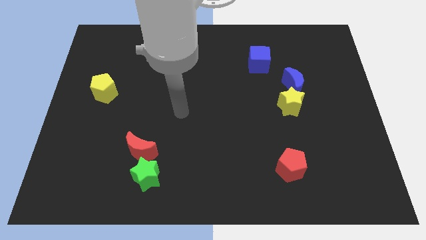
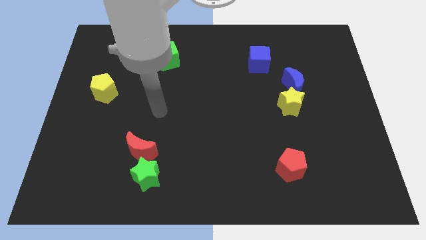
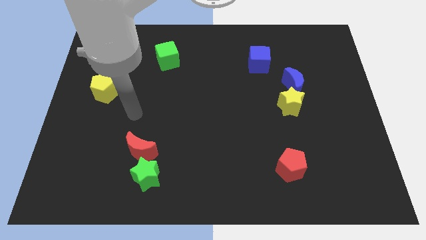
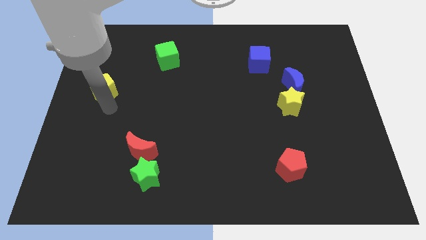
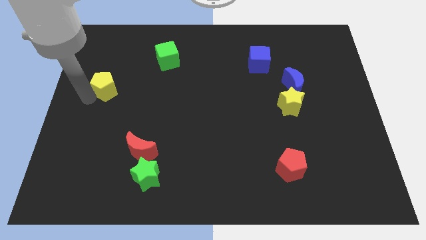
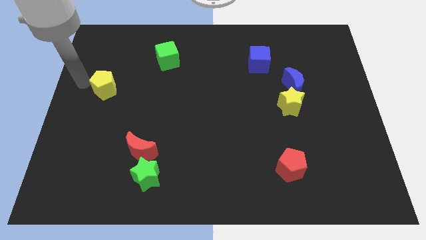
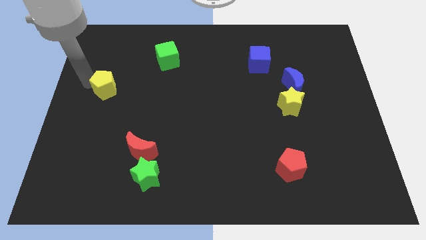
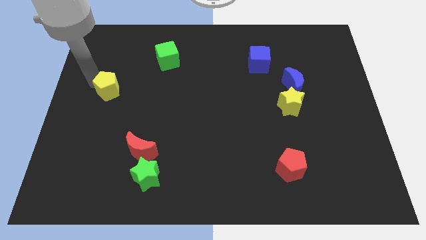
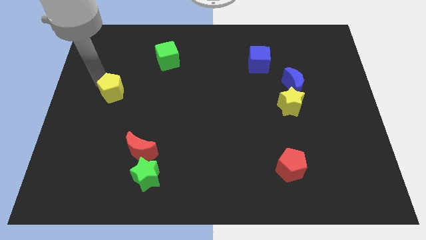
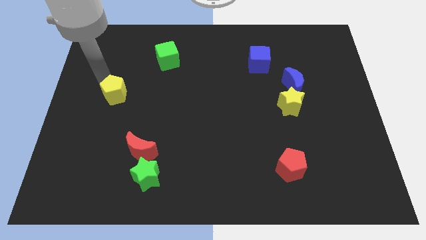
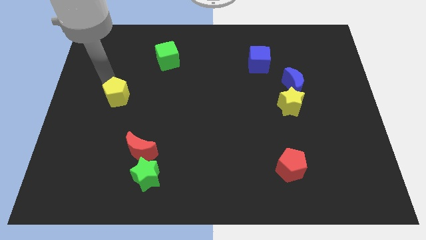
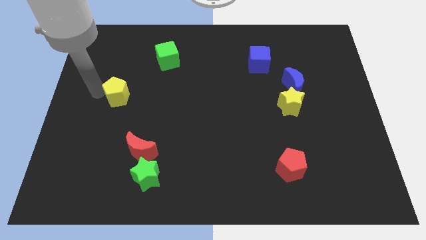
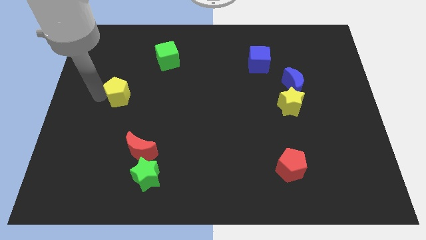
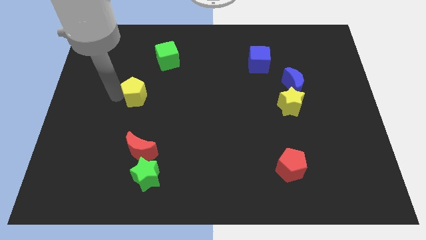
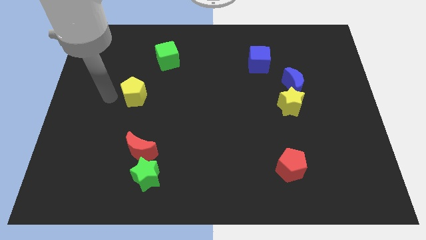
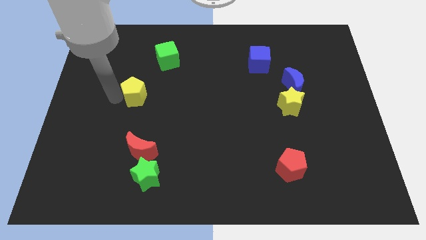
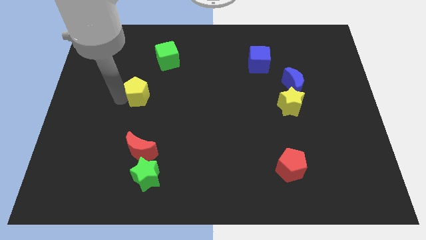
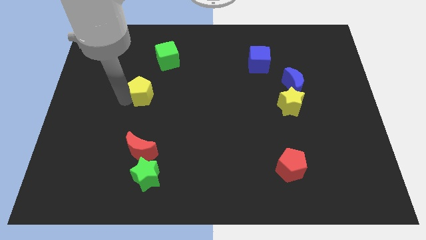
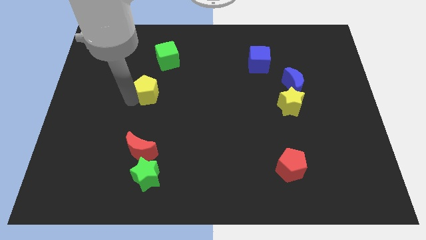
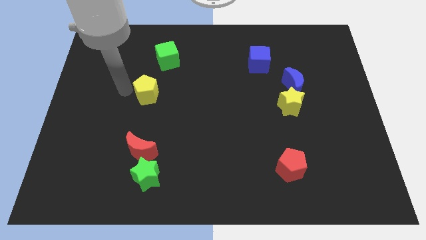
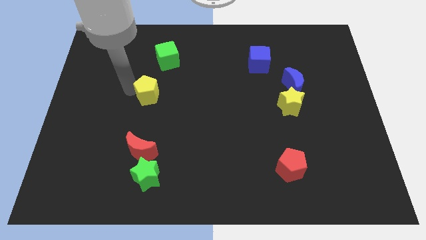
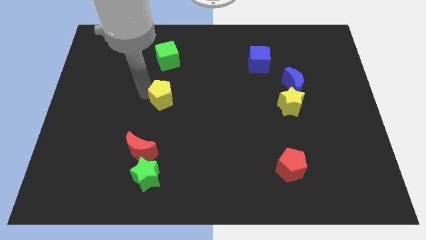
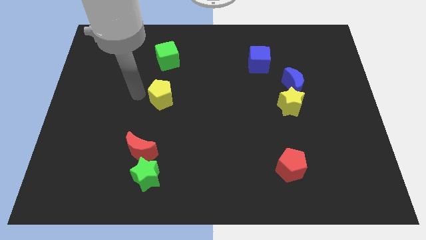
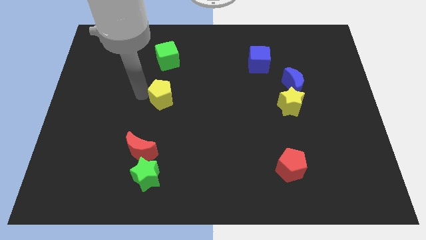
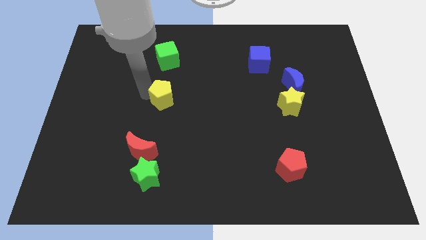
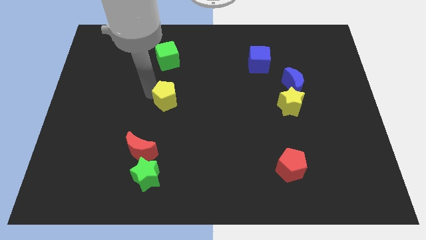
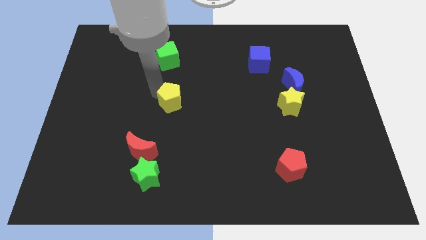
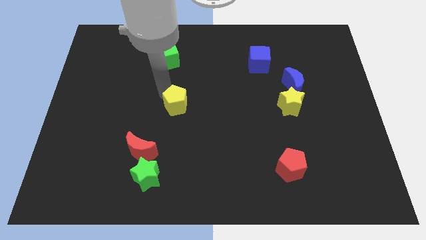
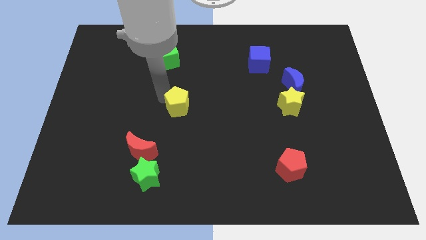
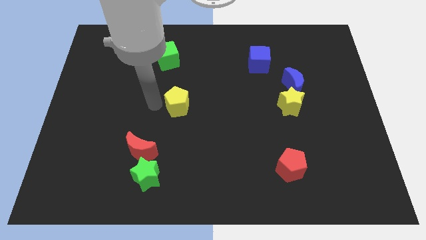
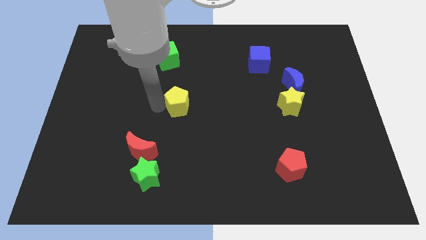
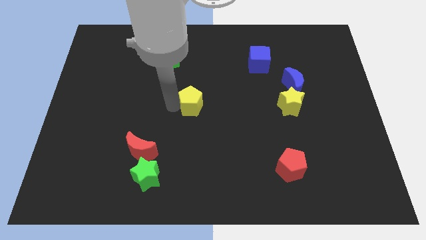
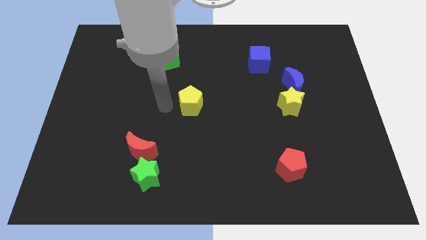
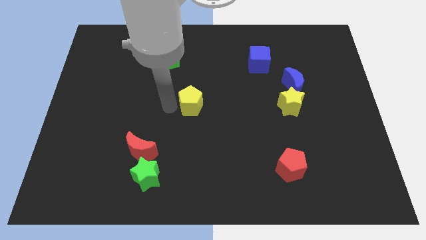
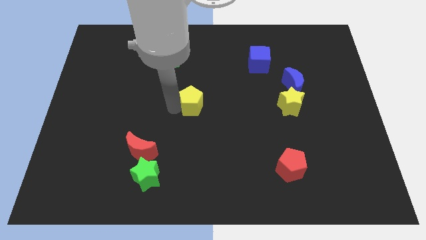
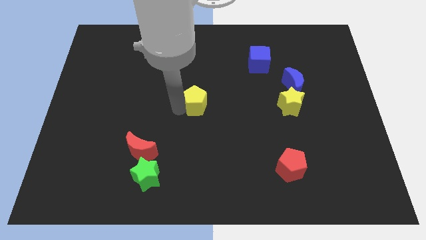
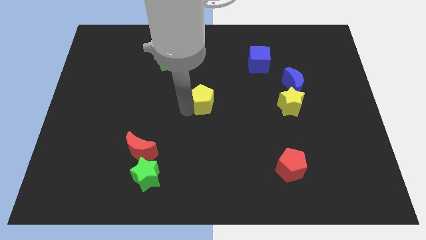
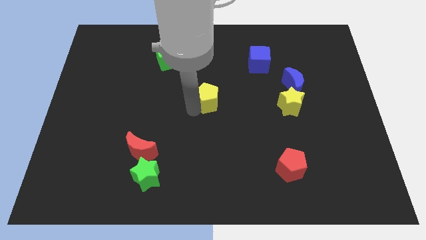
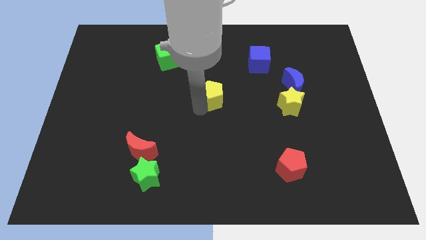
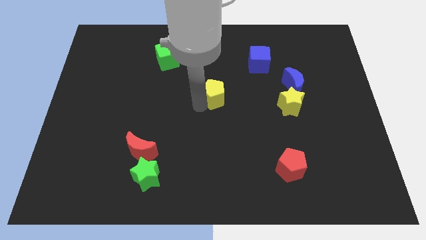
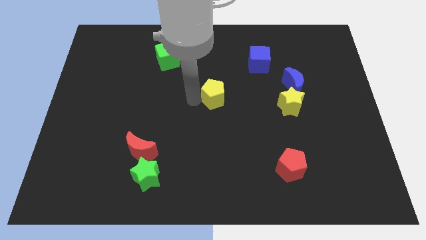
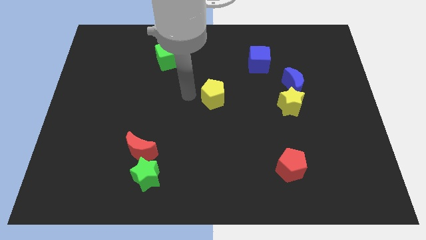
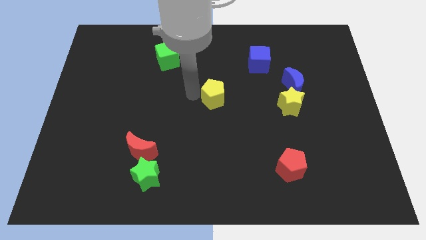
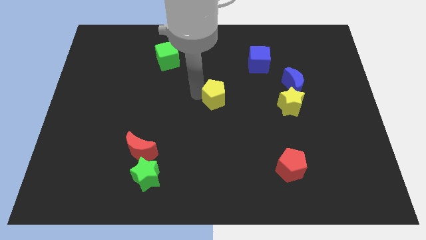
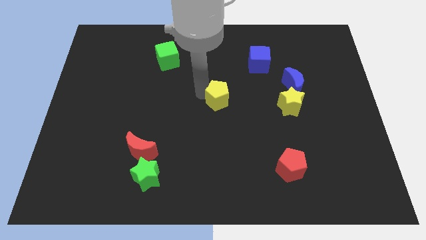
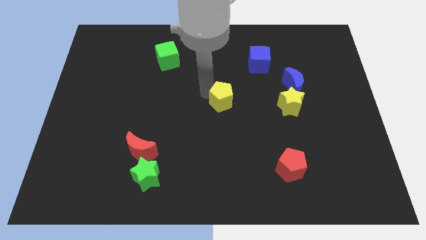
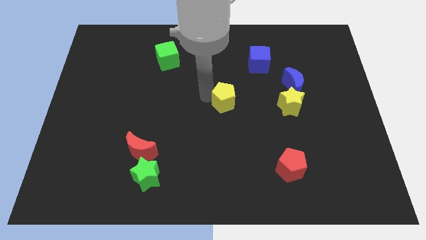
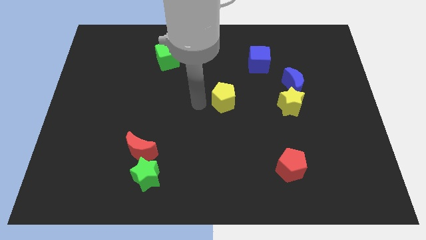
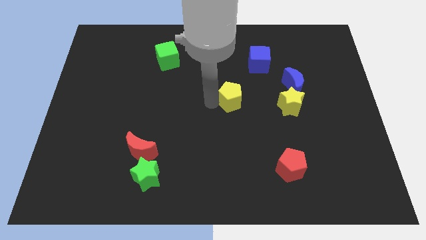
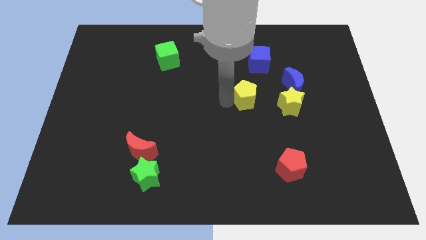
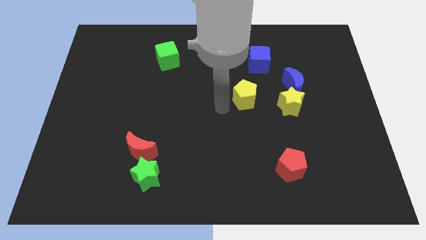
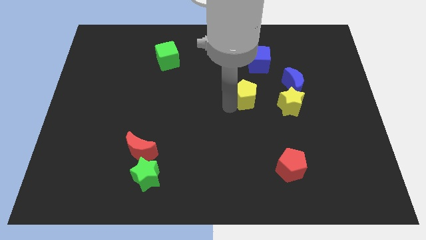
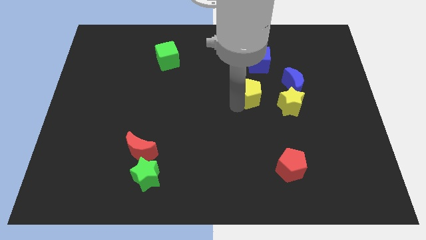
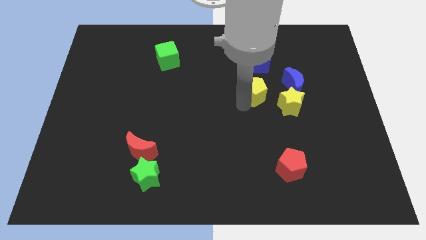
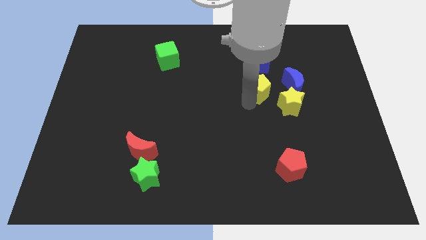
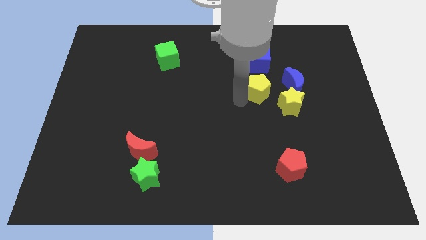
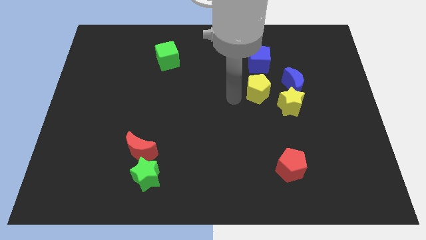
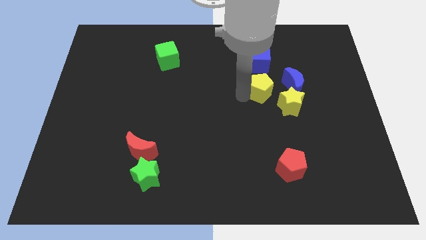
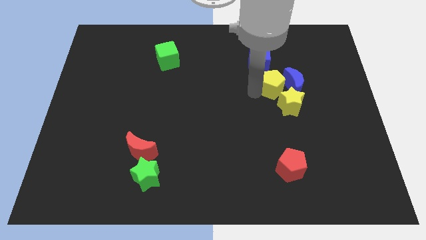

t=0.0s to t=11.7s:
push the yellow pentagon to the blue moon

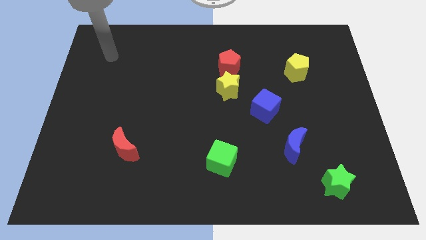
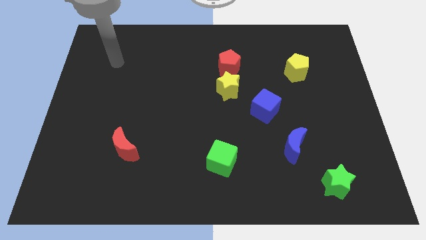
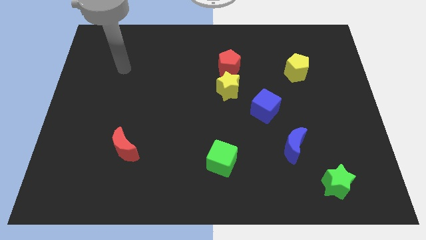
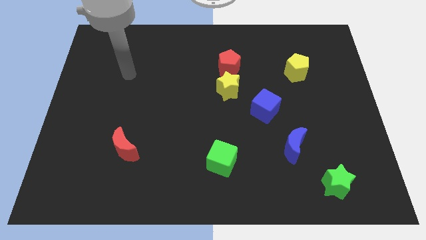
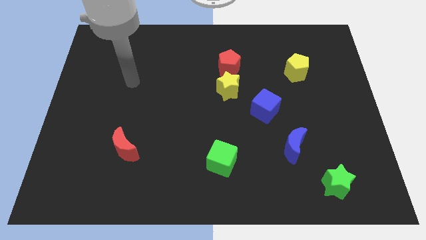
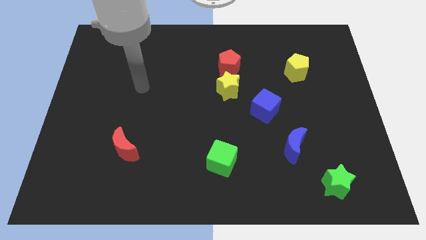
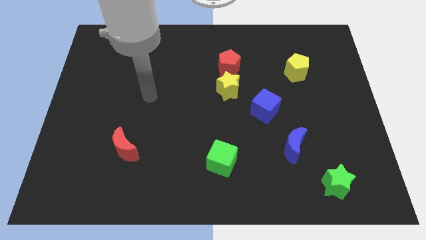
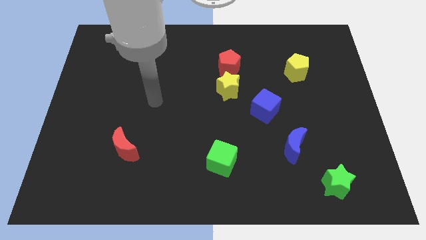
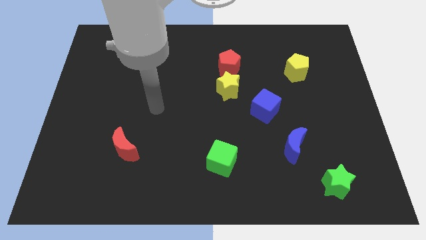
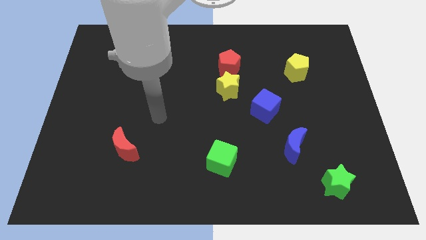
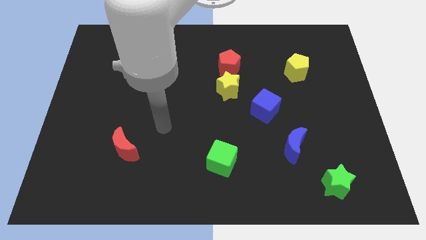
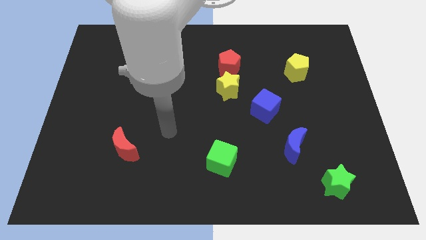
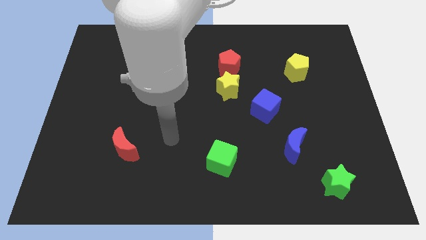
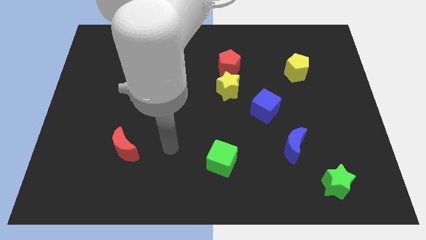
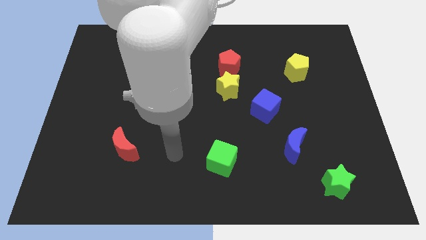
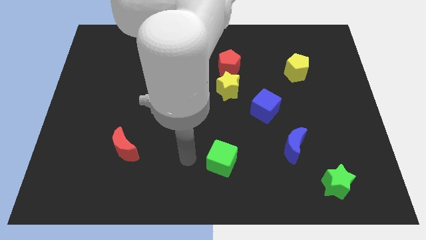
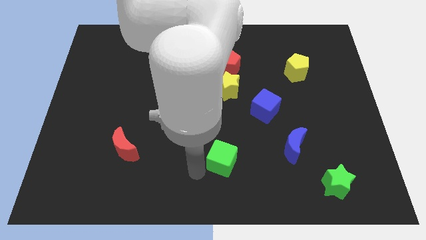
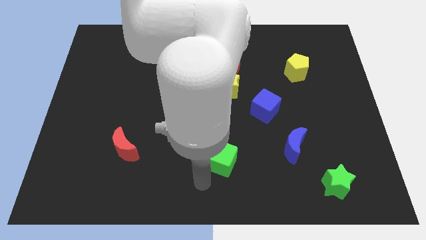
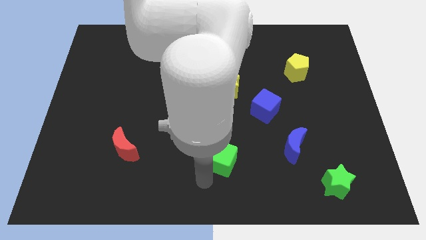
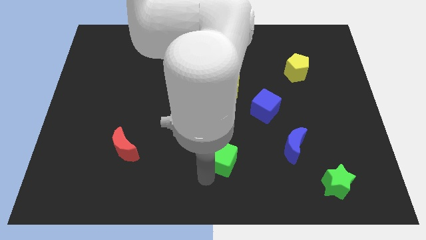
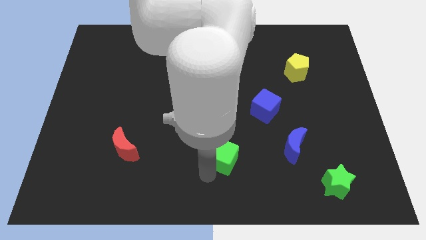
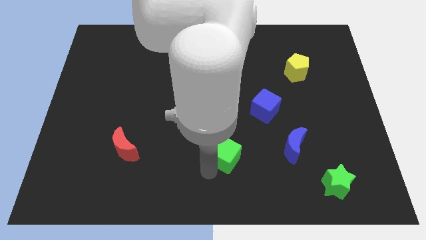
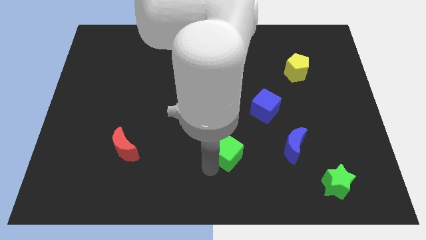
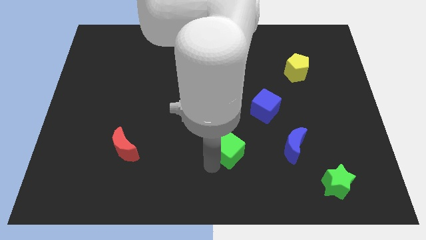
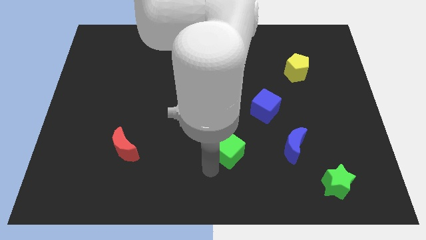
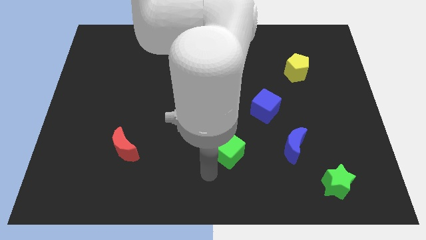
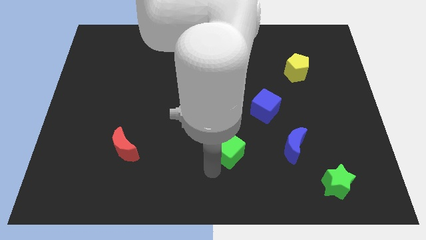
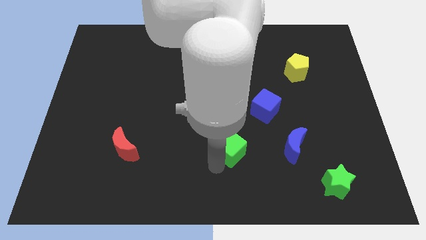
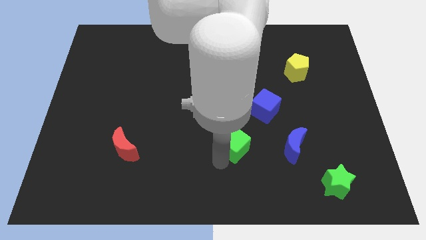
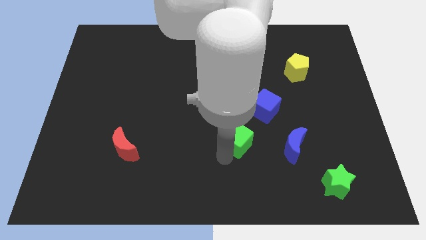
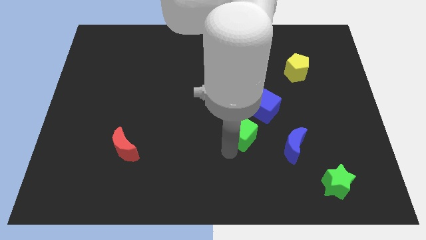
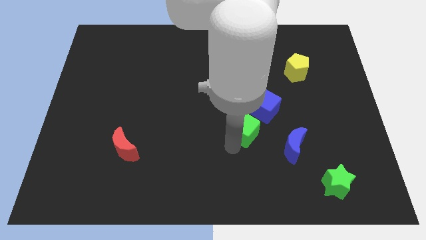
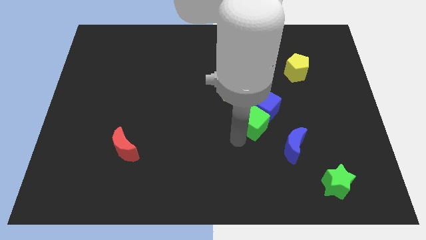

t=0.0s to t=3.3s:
put the green cube next to the blue cube
